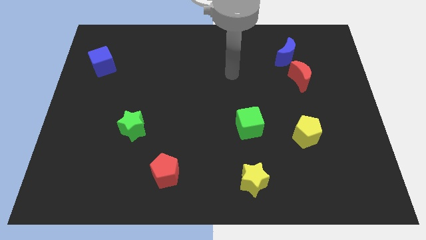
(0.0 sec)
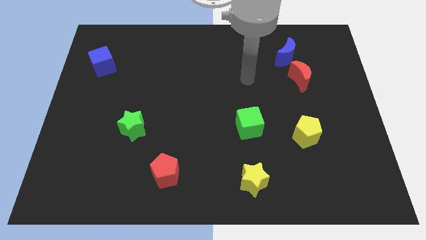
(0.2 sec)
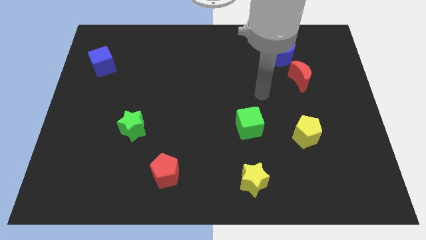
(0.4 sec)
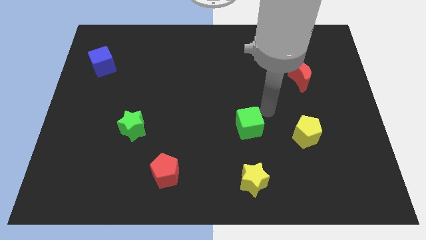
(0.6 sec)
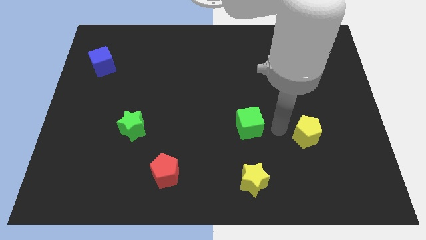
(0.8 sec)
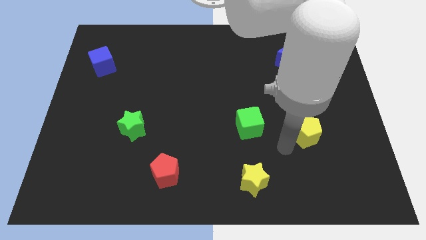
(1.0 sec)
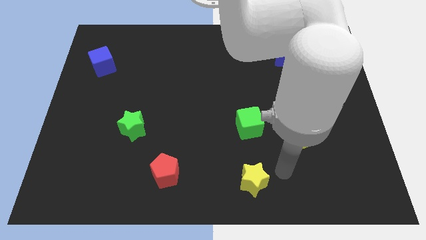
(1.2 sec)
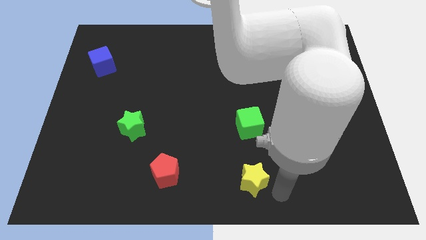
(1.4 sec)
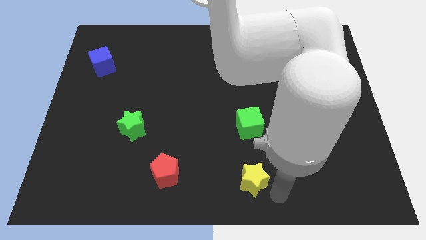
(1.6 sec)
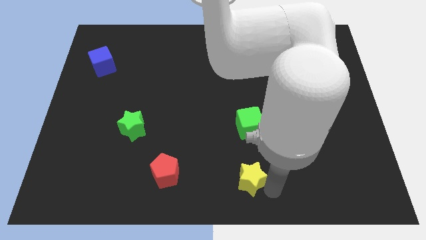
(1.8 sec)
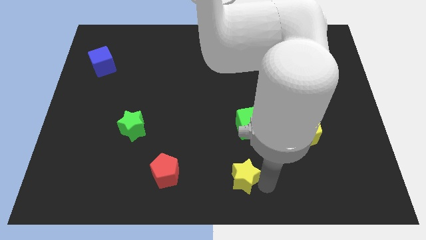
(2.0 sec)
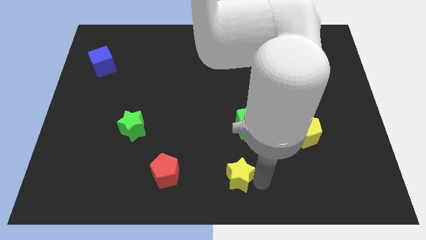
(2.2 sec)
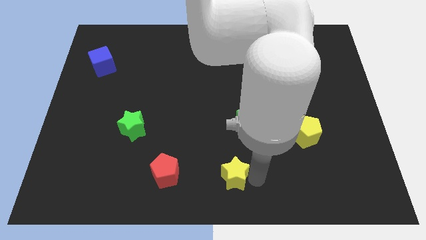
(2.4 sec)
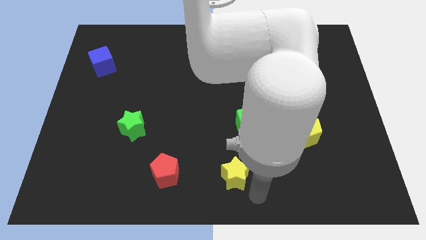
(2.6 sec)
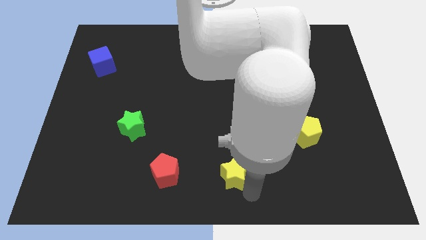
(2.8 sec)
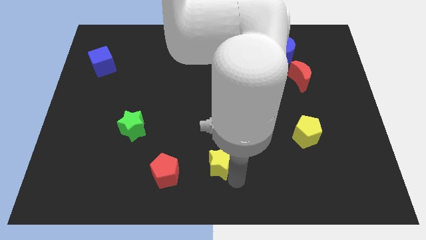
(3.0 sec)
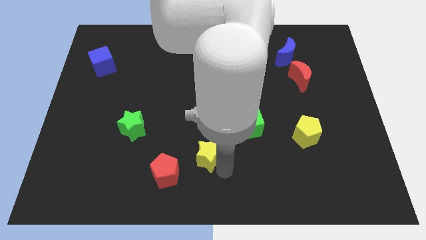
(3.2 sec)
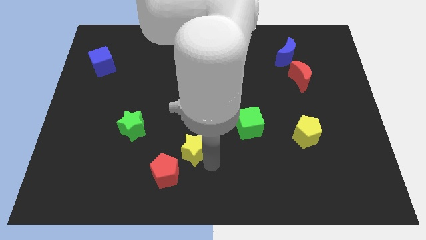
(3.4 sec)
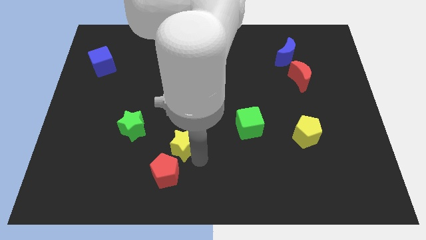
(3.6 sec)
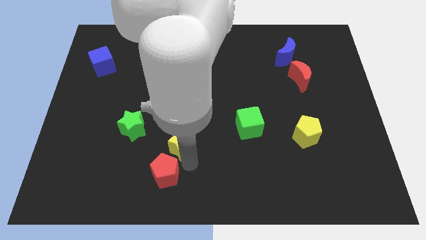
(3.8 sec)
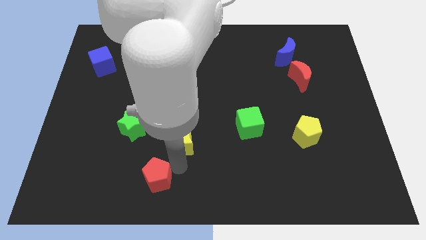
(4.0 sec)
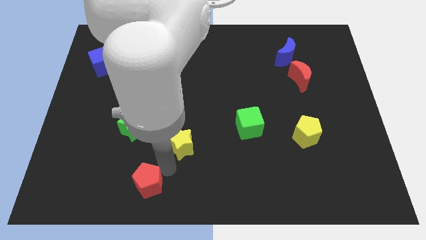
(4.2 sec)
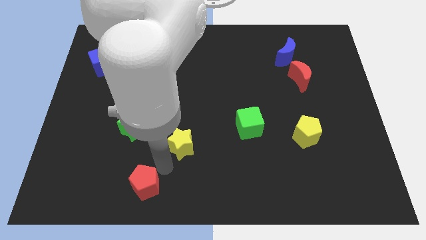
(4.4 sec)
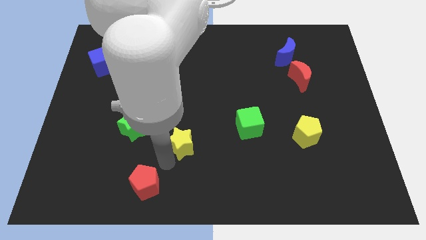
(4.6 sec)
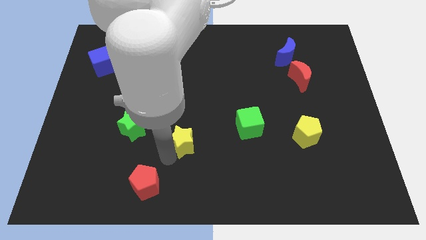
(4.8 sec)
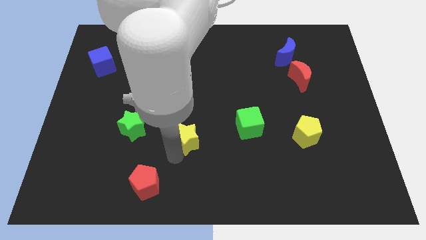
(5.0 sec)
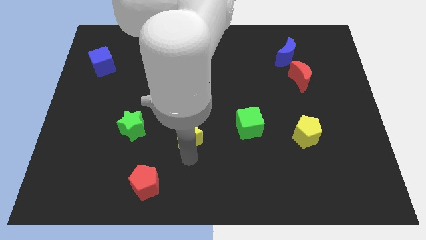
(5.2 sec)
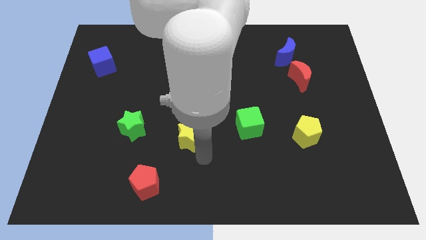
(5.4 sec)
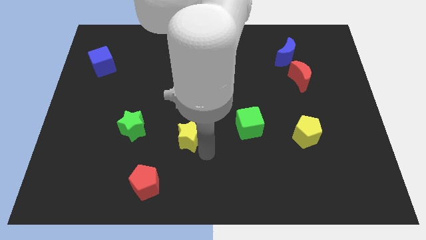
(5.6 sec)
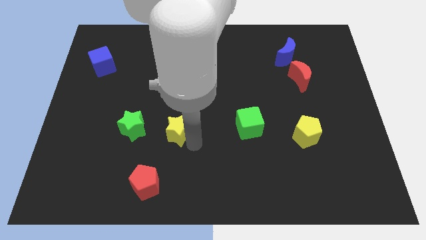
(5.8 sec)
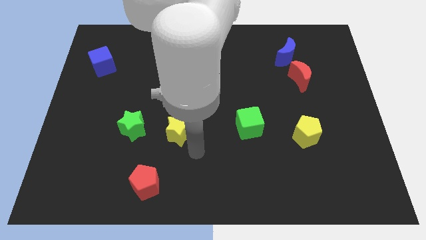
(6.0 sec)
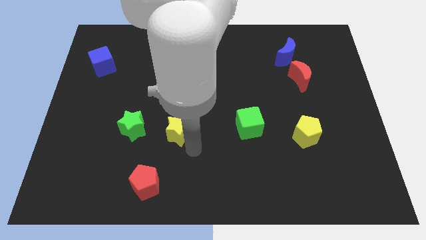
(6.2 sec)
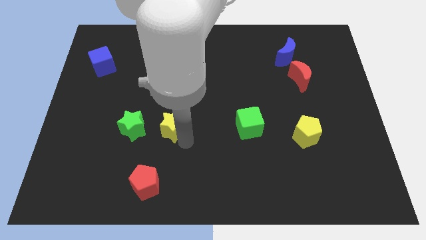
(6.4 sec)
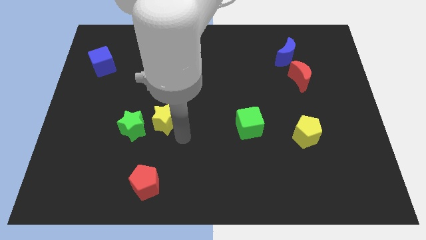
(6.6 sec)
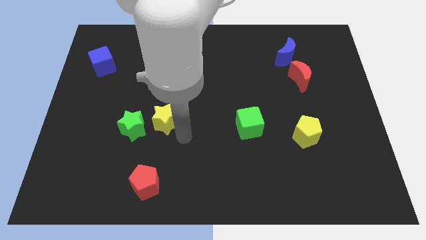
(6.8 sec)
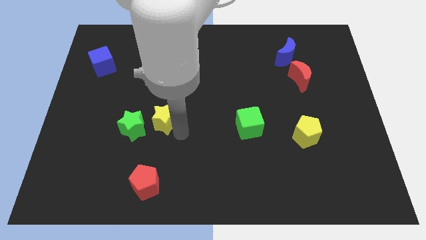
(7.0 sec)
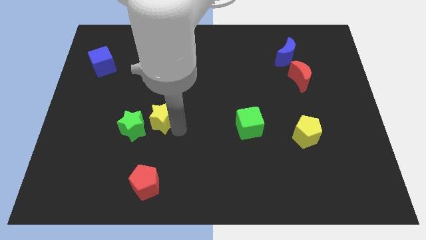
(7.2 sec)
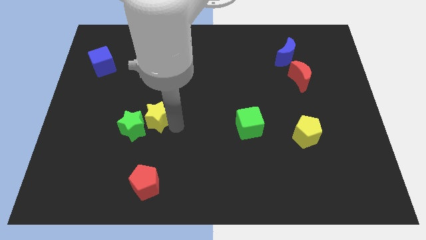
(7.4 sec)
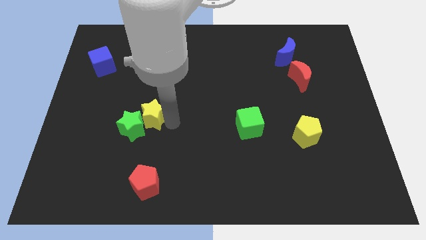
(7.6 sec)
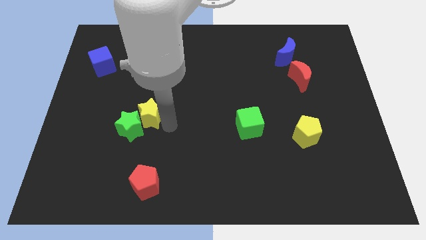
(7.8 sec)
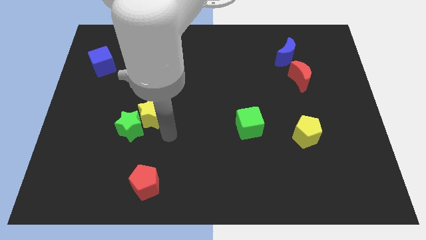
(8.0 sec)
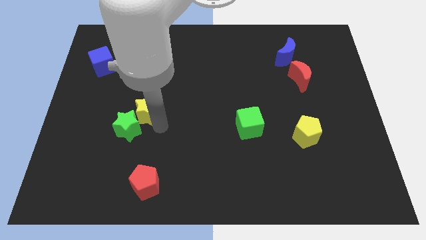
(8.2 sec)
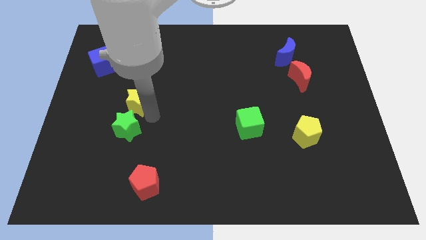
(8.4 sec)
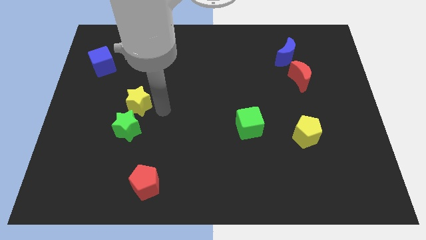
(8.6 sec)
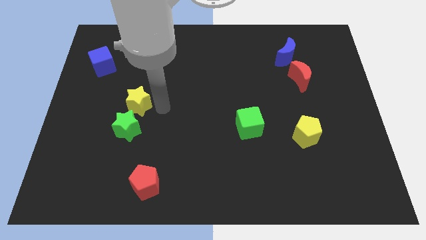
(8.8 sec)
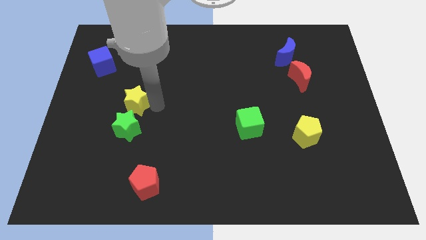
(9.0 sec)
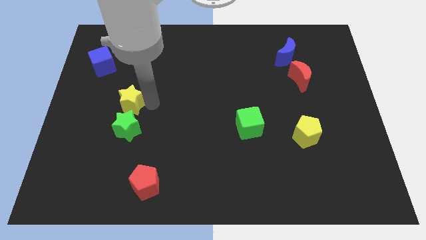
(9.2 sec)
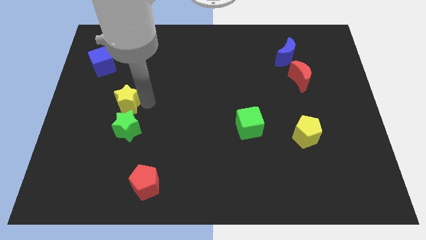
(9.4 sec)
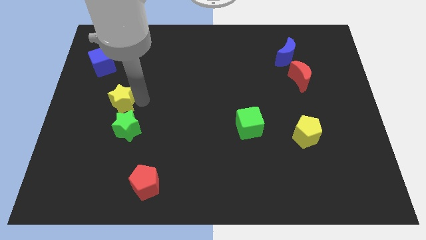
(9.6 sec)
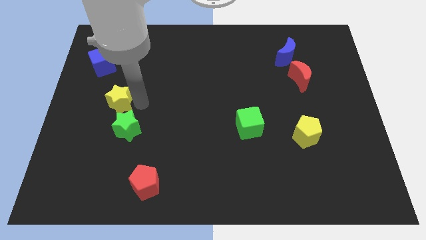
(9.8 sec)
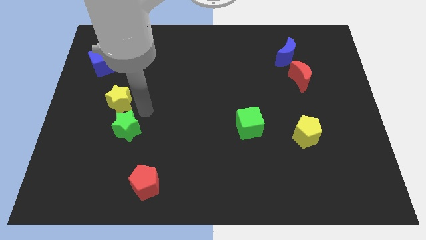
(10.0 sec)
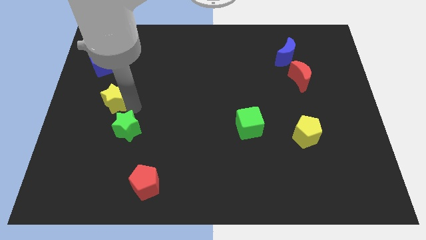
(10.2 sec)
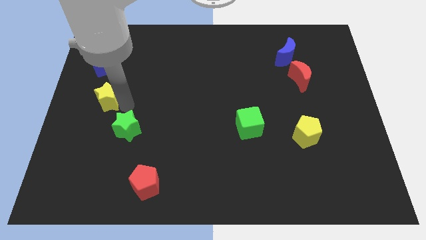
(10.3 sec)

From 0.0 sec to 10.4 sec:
put the yellow star below the blue cube

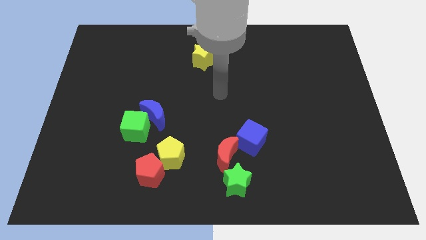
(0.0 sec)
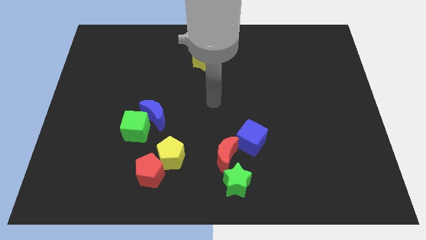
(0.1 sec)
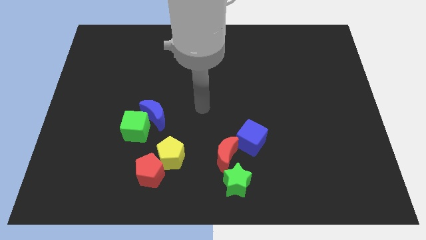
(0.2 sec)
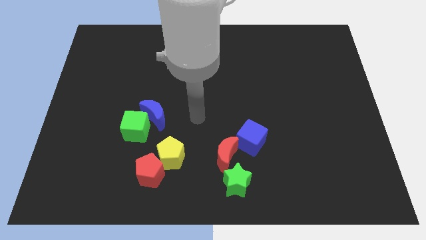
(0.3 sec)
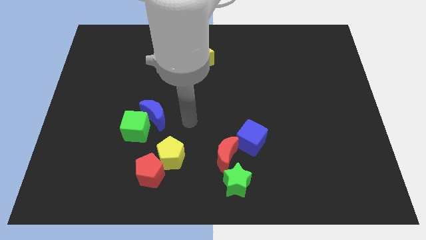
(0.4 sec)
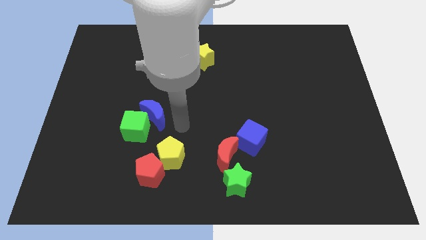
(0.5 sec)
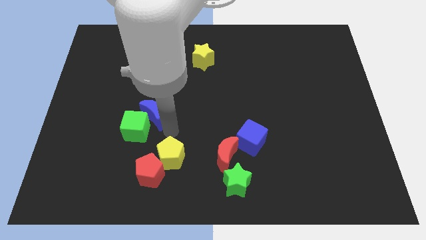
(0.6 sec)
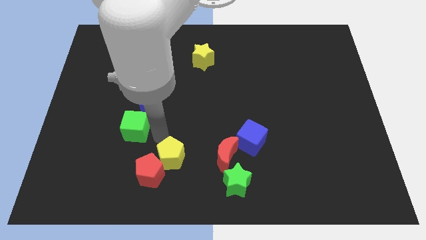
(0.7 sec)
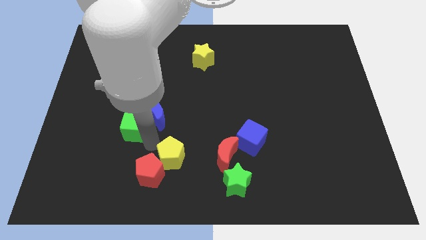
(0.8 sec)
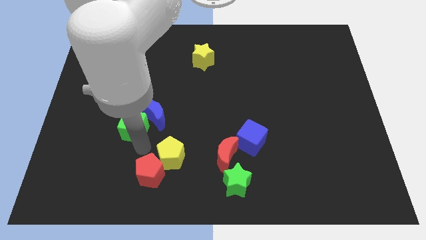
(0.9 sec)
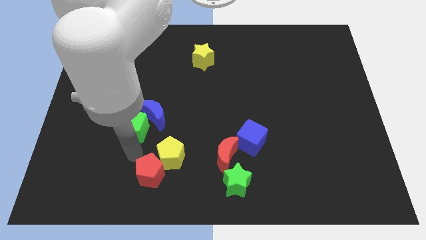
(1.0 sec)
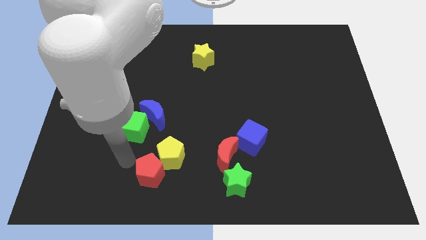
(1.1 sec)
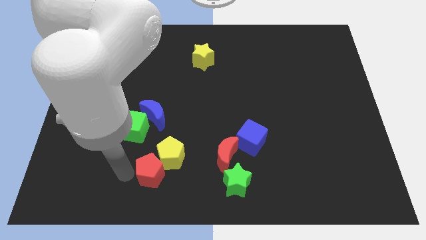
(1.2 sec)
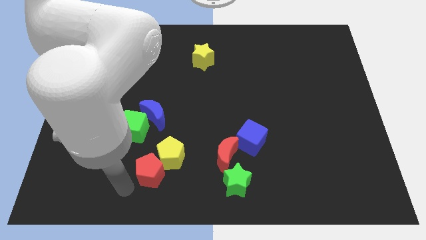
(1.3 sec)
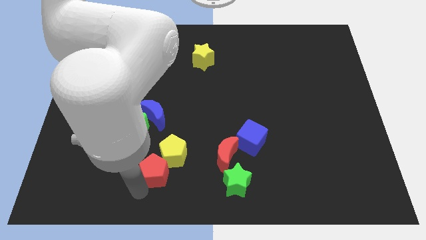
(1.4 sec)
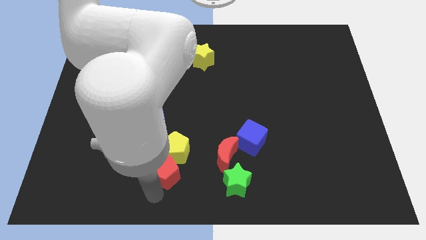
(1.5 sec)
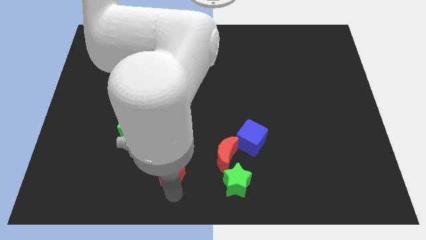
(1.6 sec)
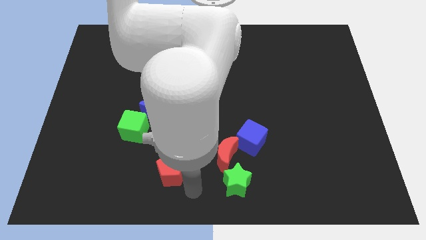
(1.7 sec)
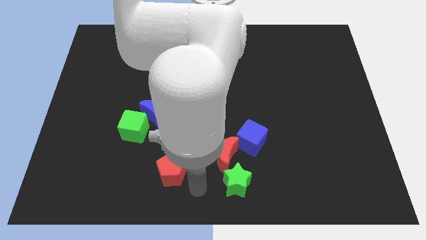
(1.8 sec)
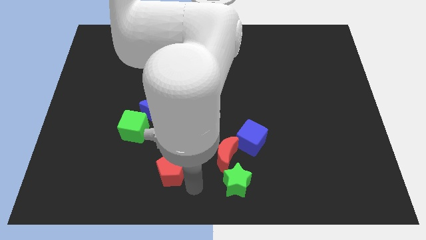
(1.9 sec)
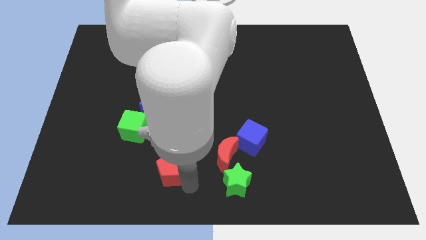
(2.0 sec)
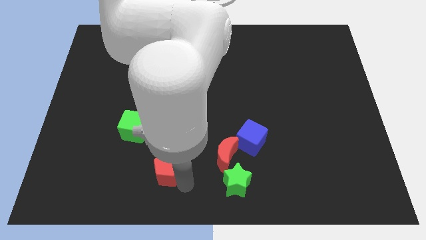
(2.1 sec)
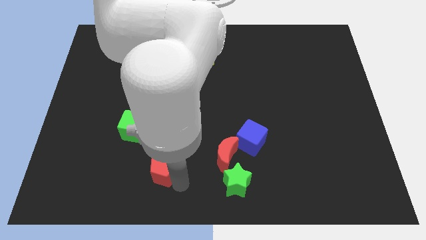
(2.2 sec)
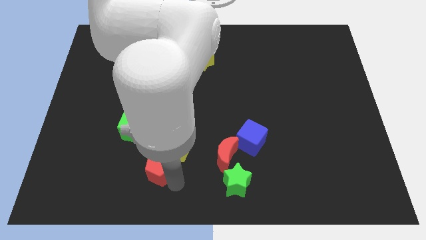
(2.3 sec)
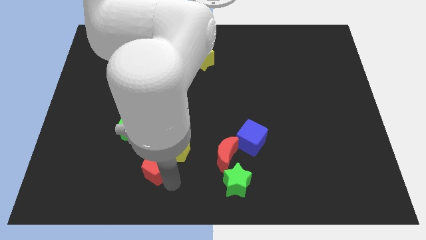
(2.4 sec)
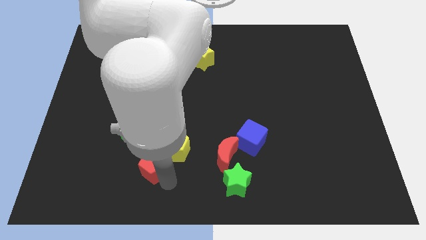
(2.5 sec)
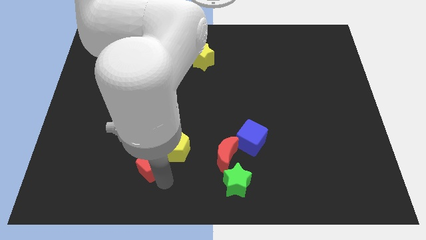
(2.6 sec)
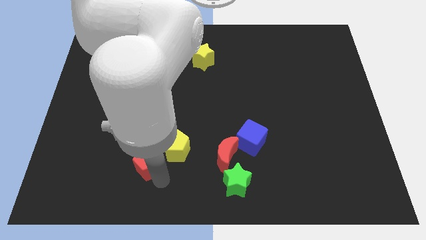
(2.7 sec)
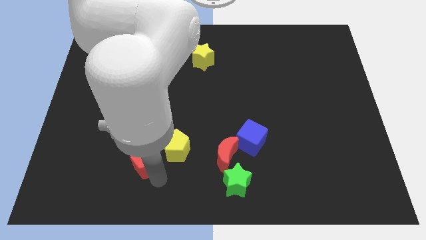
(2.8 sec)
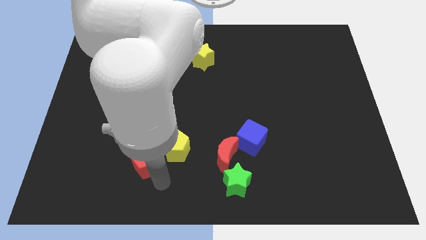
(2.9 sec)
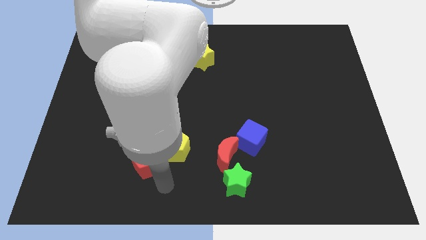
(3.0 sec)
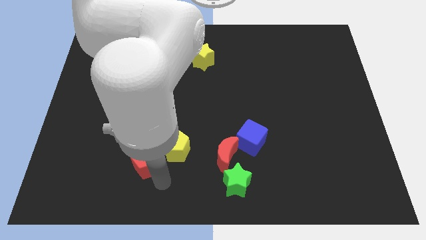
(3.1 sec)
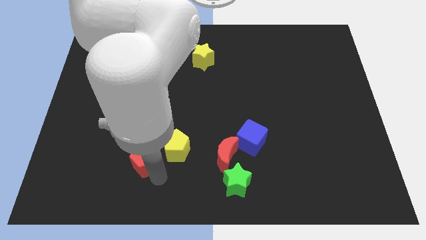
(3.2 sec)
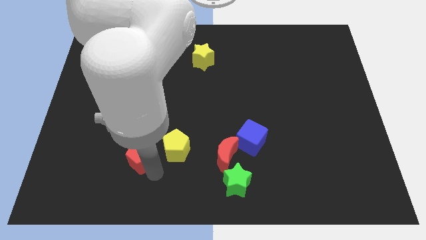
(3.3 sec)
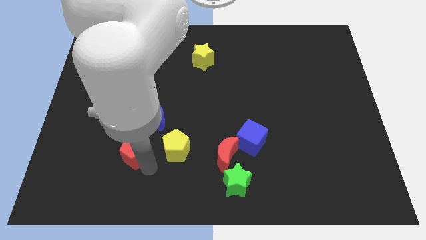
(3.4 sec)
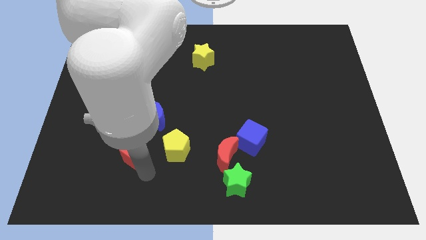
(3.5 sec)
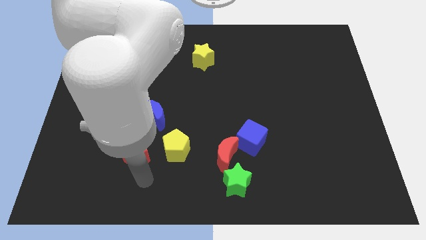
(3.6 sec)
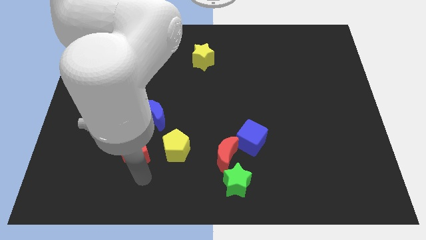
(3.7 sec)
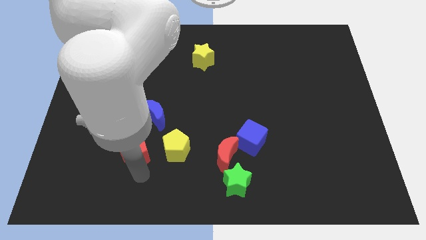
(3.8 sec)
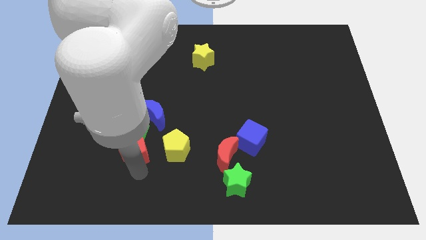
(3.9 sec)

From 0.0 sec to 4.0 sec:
put the red pentagon to the bottom left side of the blue moon
